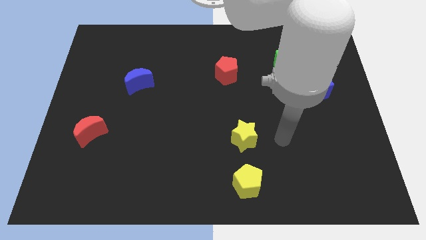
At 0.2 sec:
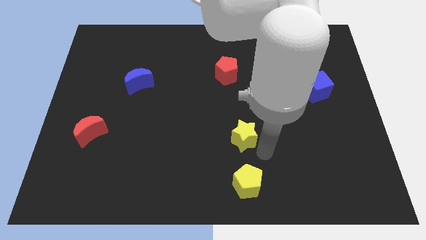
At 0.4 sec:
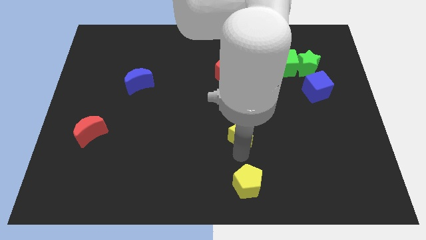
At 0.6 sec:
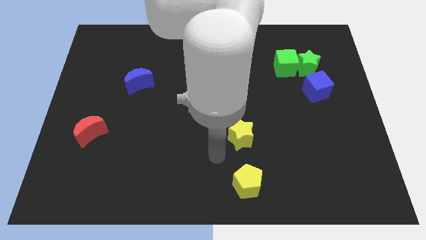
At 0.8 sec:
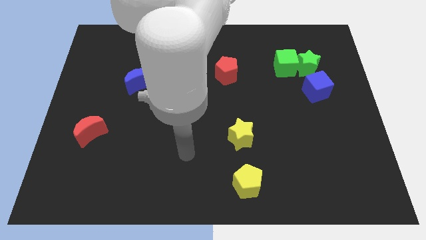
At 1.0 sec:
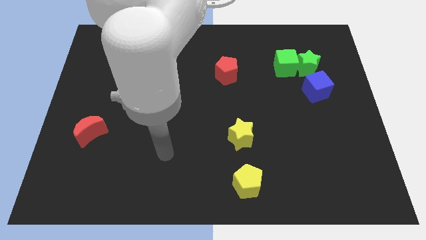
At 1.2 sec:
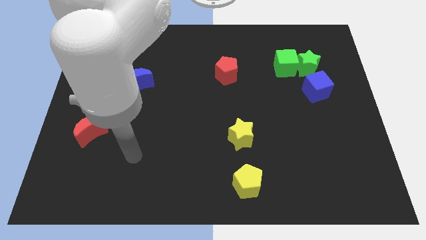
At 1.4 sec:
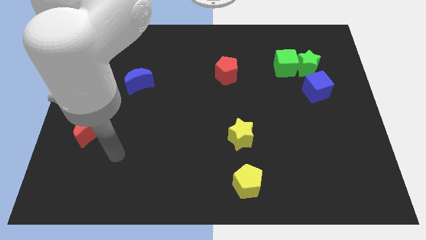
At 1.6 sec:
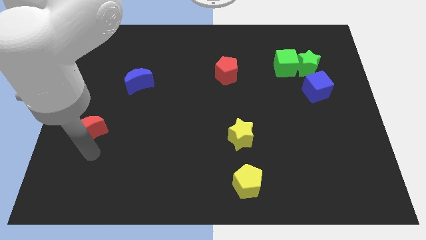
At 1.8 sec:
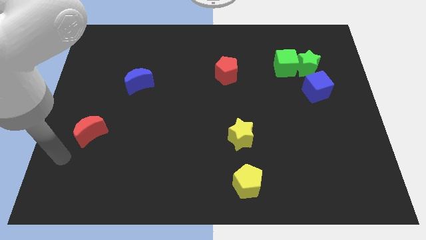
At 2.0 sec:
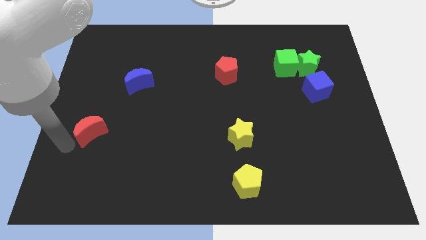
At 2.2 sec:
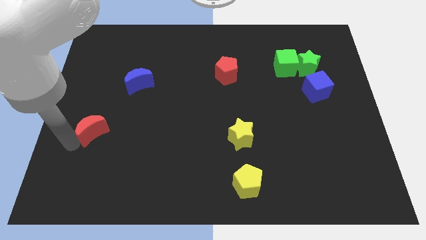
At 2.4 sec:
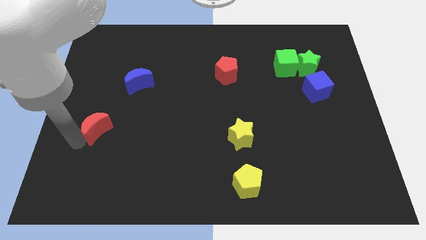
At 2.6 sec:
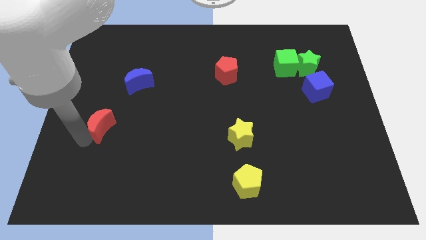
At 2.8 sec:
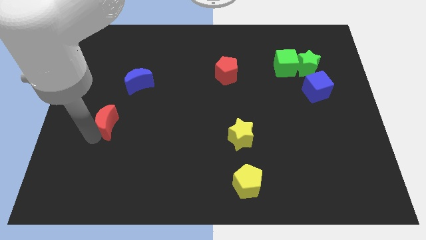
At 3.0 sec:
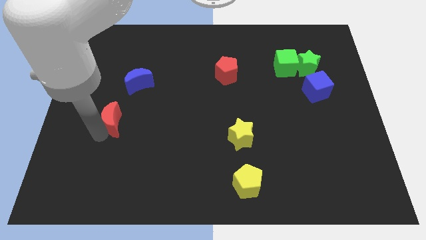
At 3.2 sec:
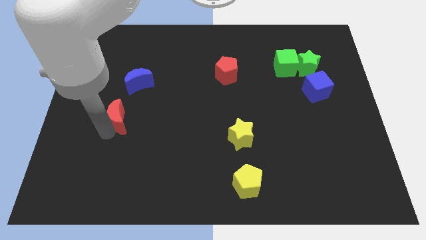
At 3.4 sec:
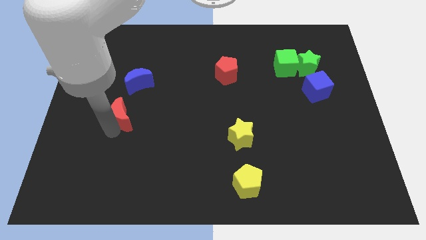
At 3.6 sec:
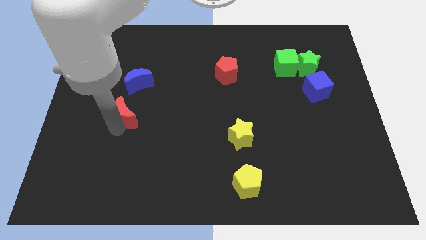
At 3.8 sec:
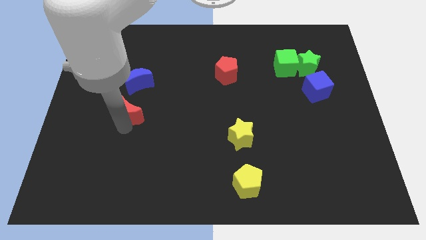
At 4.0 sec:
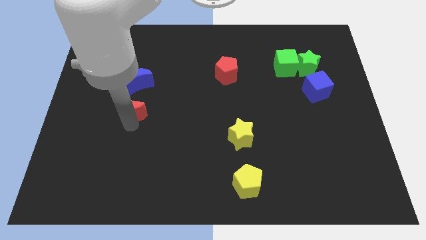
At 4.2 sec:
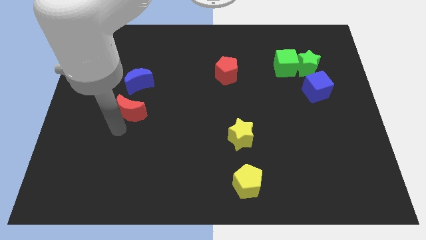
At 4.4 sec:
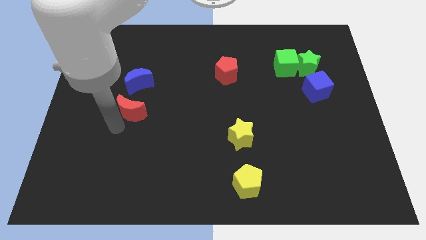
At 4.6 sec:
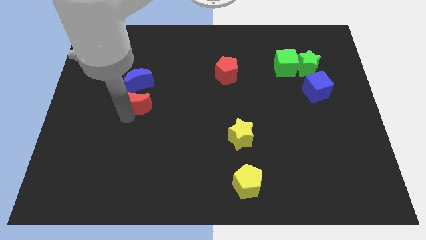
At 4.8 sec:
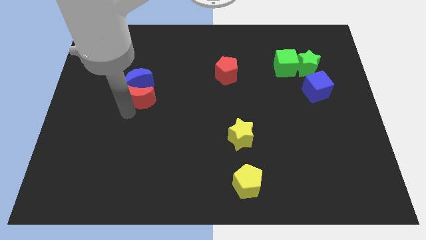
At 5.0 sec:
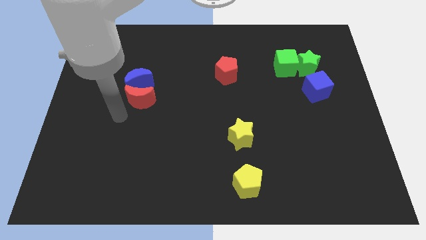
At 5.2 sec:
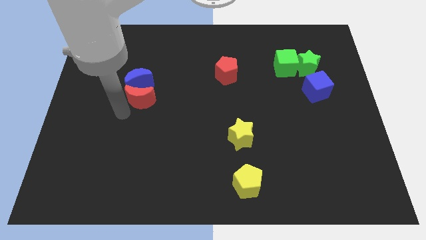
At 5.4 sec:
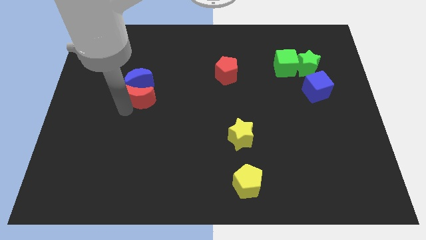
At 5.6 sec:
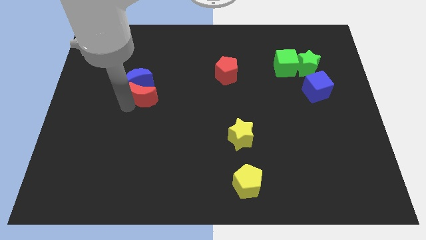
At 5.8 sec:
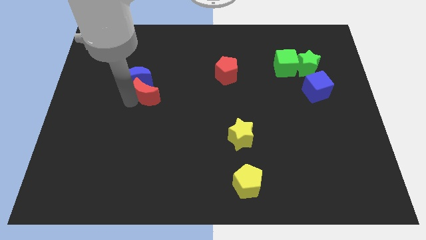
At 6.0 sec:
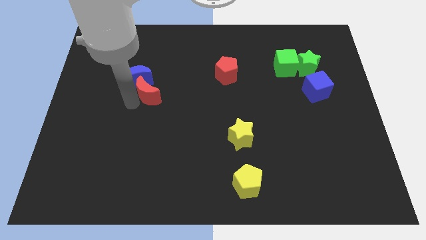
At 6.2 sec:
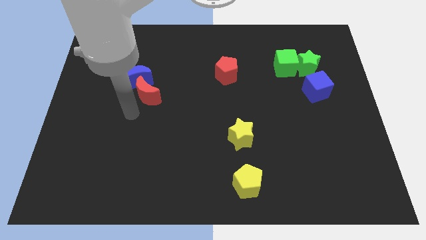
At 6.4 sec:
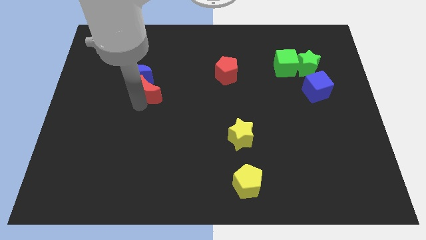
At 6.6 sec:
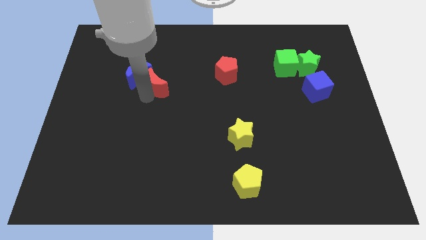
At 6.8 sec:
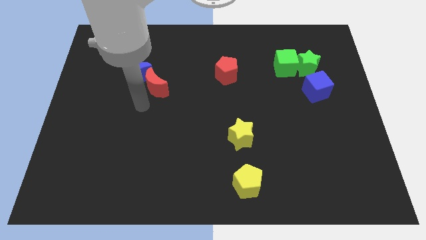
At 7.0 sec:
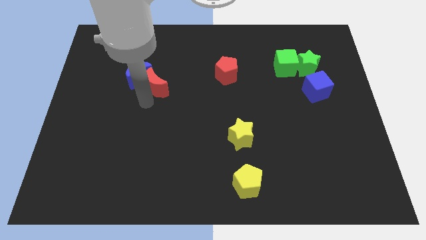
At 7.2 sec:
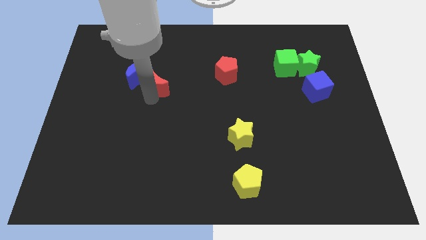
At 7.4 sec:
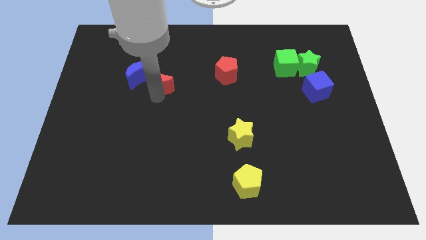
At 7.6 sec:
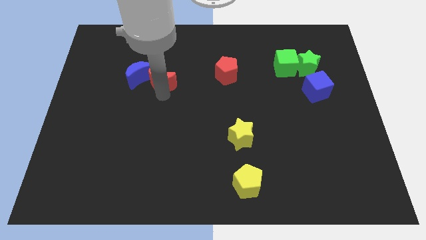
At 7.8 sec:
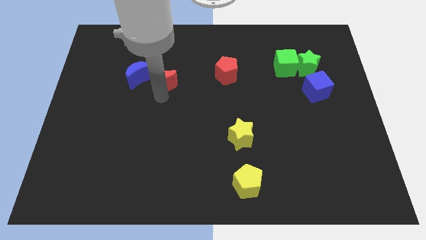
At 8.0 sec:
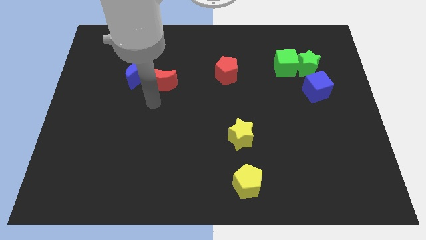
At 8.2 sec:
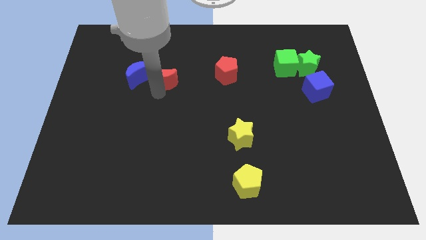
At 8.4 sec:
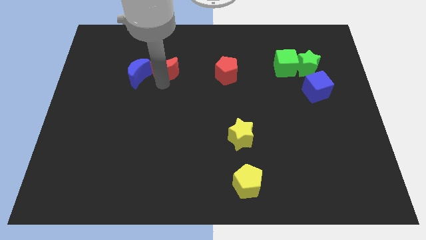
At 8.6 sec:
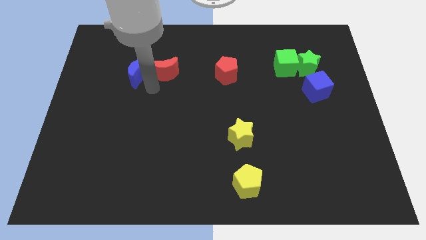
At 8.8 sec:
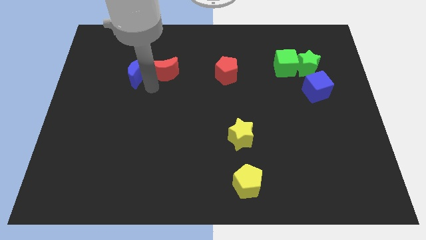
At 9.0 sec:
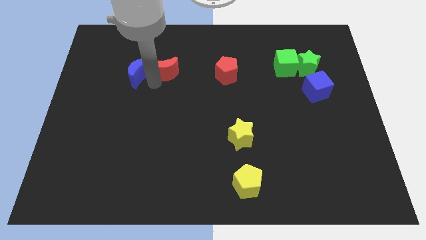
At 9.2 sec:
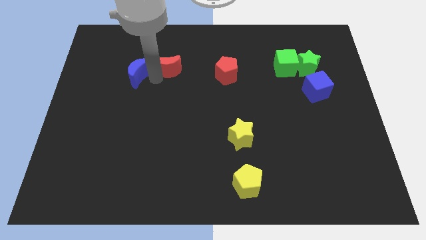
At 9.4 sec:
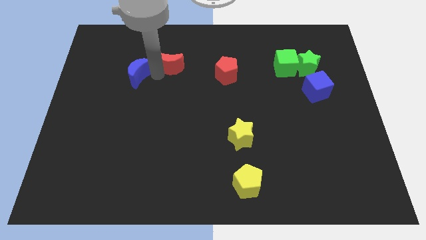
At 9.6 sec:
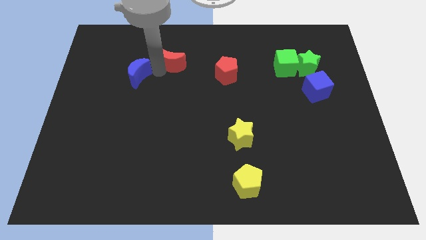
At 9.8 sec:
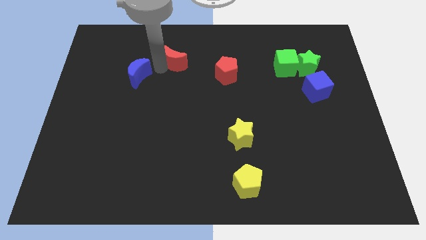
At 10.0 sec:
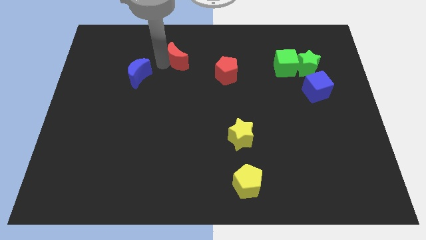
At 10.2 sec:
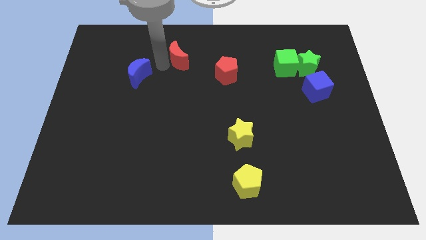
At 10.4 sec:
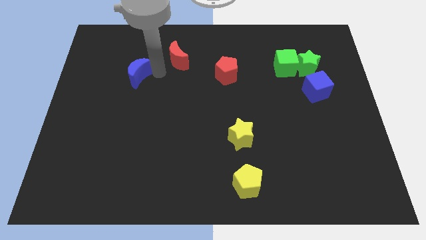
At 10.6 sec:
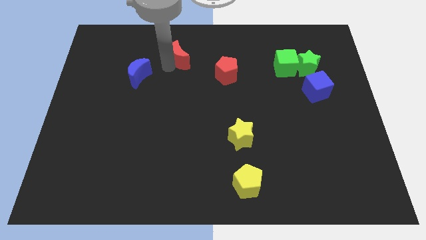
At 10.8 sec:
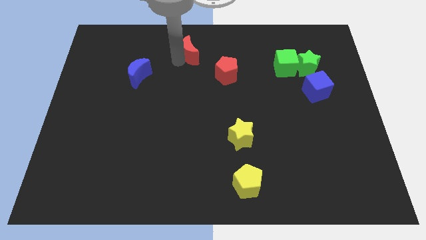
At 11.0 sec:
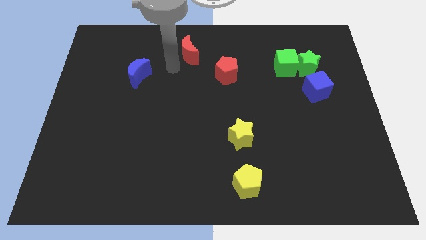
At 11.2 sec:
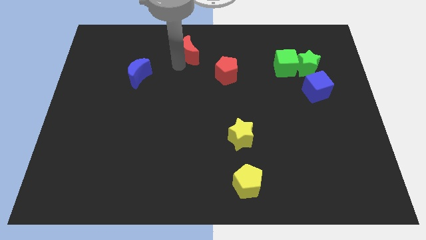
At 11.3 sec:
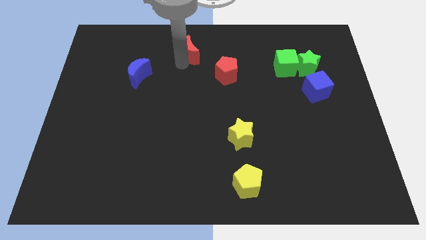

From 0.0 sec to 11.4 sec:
move the red moon to the top side

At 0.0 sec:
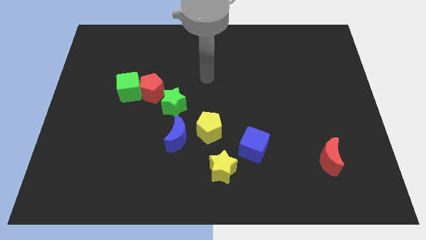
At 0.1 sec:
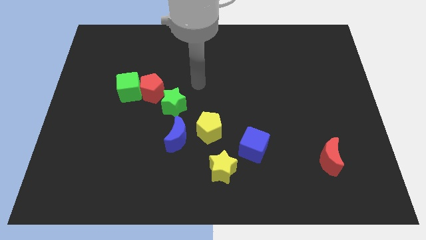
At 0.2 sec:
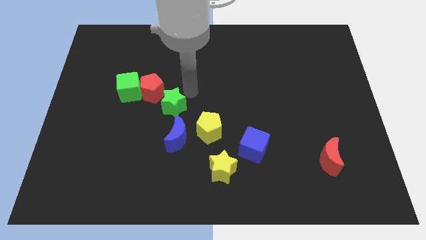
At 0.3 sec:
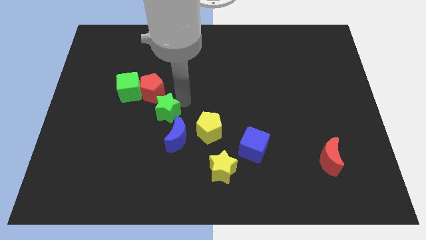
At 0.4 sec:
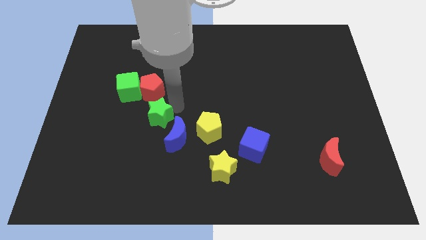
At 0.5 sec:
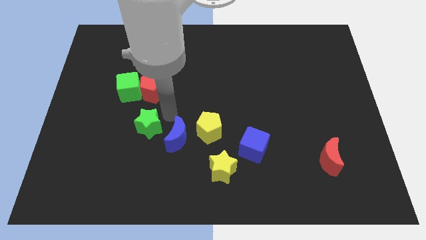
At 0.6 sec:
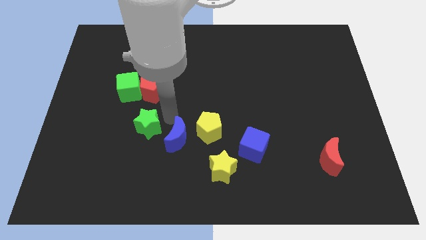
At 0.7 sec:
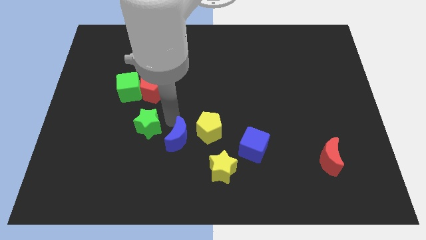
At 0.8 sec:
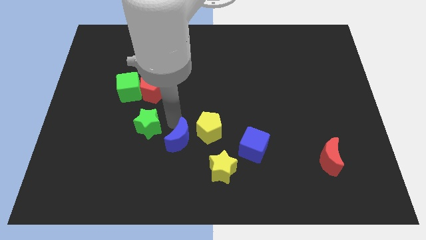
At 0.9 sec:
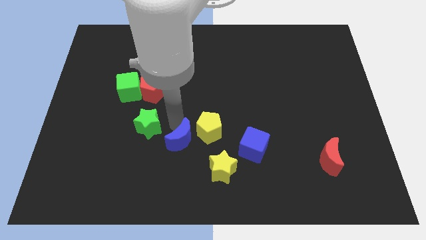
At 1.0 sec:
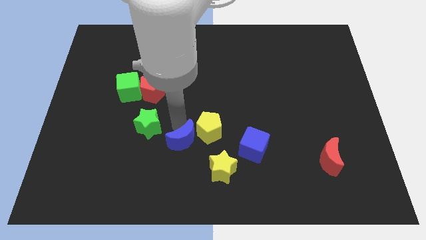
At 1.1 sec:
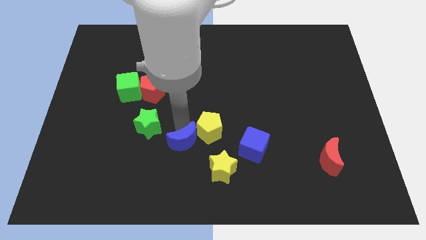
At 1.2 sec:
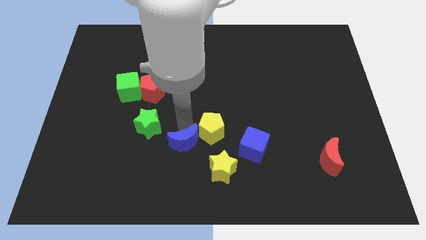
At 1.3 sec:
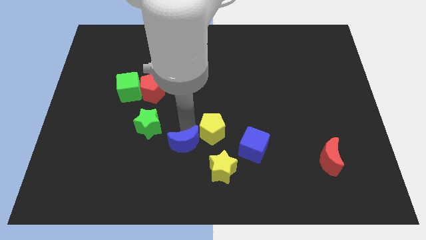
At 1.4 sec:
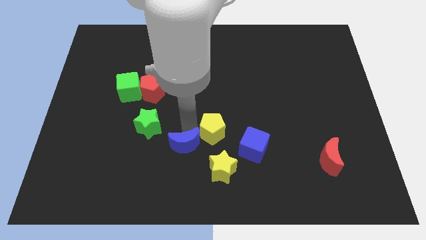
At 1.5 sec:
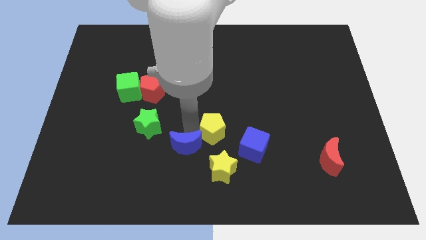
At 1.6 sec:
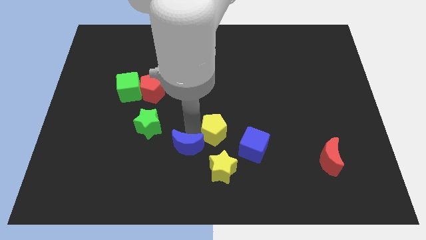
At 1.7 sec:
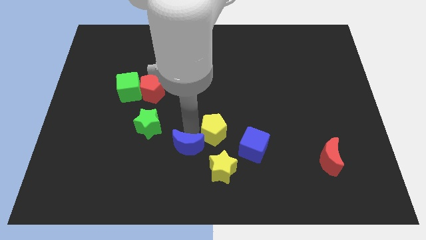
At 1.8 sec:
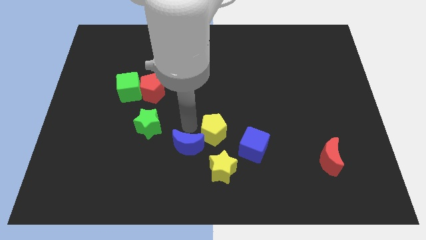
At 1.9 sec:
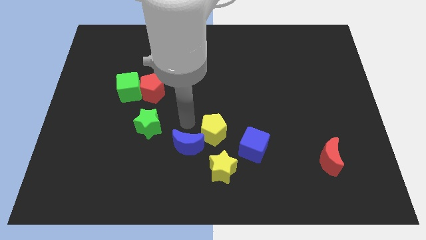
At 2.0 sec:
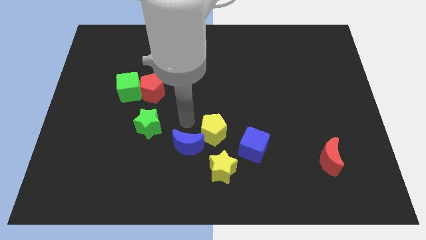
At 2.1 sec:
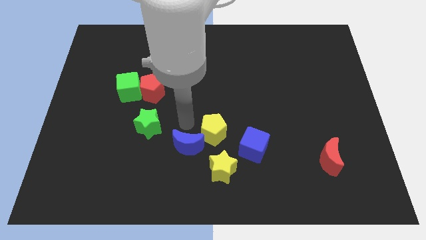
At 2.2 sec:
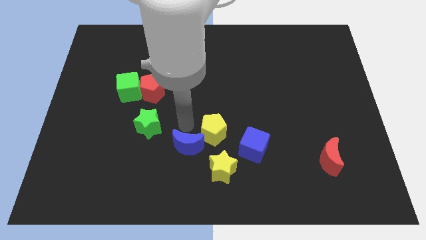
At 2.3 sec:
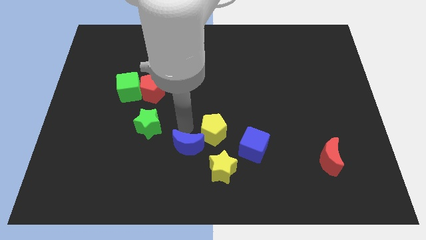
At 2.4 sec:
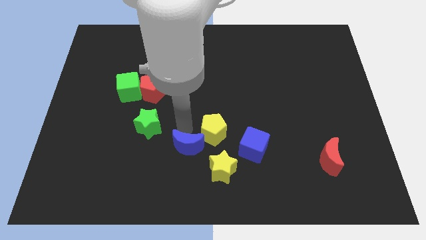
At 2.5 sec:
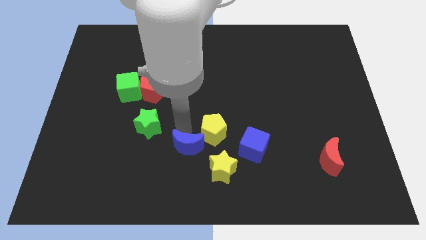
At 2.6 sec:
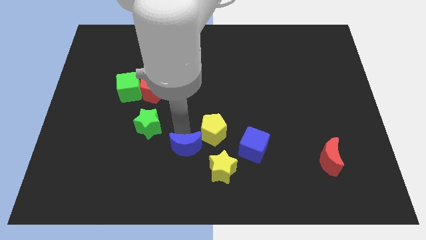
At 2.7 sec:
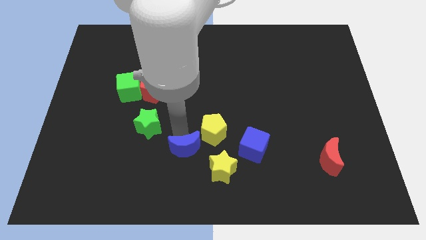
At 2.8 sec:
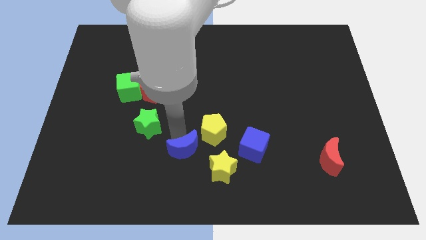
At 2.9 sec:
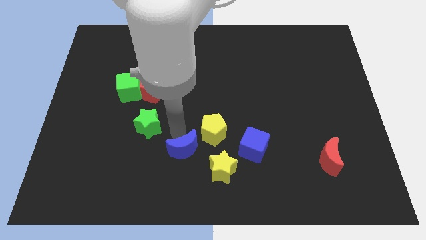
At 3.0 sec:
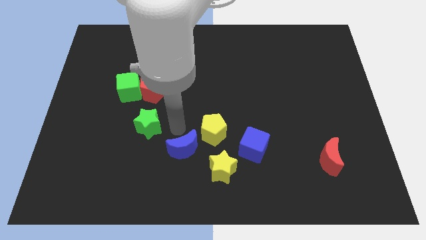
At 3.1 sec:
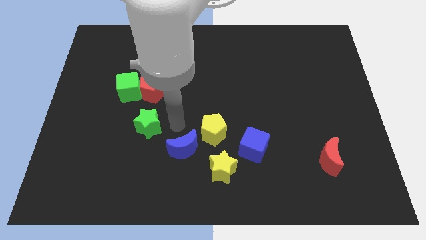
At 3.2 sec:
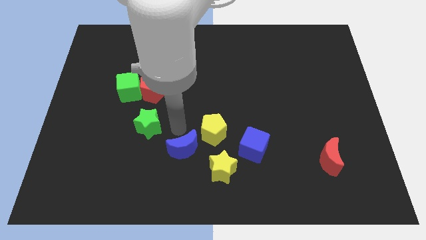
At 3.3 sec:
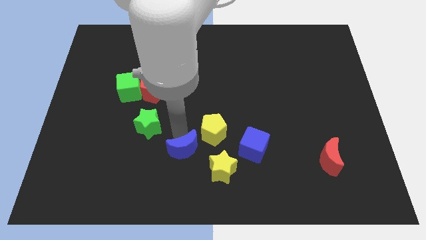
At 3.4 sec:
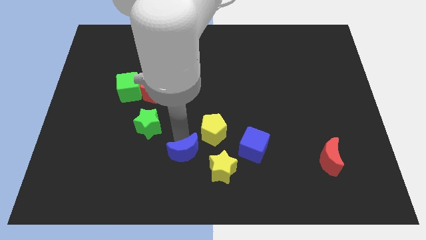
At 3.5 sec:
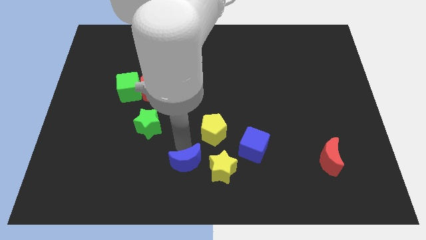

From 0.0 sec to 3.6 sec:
put the blue moon to the bottom side
